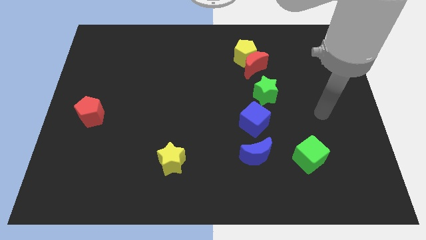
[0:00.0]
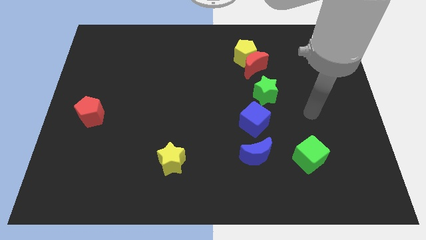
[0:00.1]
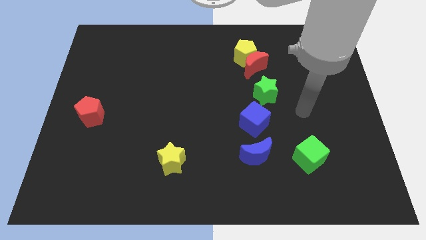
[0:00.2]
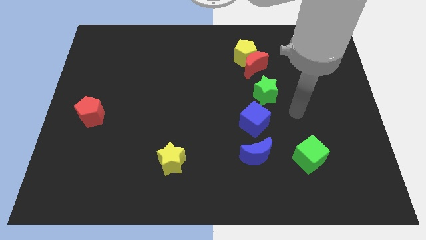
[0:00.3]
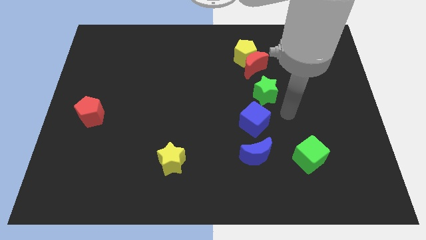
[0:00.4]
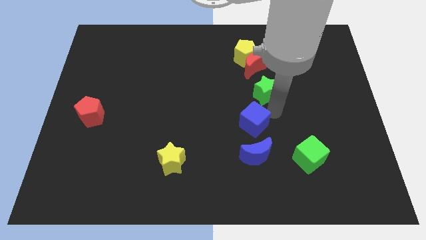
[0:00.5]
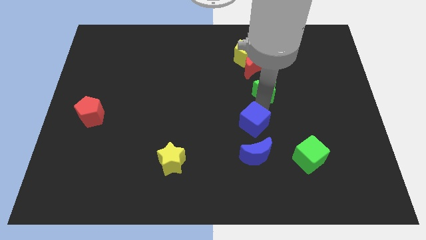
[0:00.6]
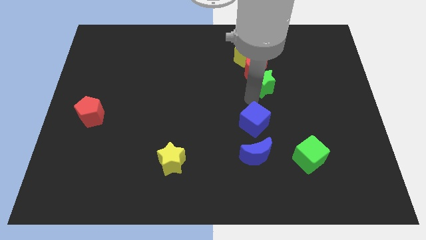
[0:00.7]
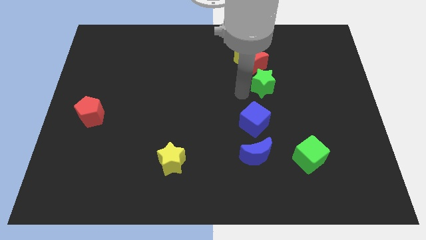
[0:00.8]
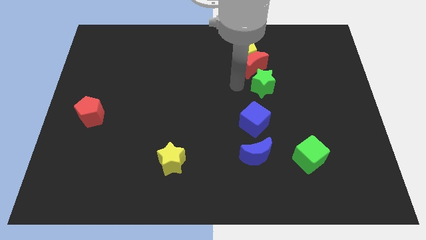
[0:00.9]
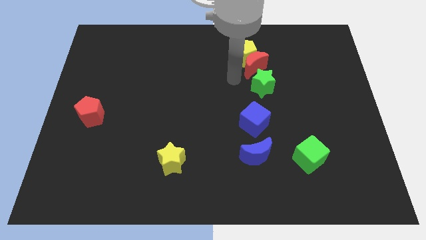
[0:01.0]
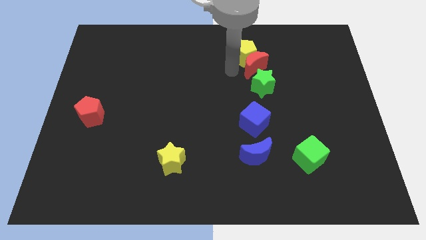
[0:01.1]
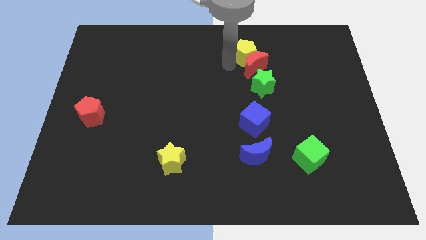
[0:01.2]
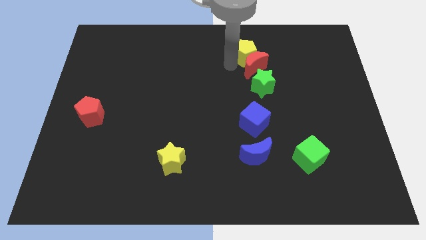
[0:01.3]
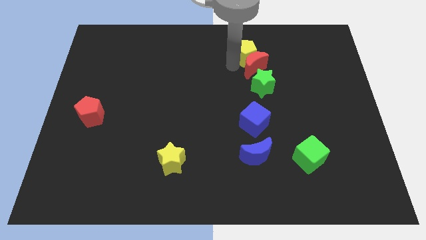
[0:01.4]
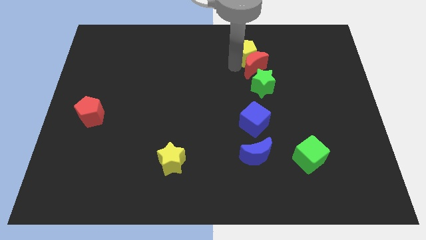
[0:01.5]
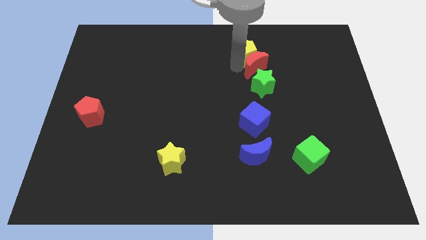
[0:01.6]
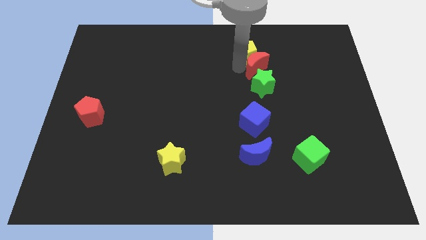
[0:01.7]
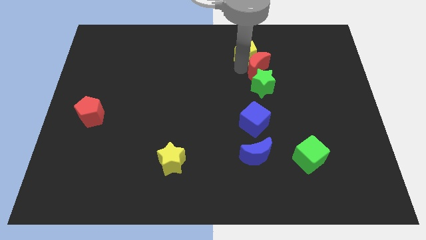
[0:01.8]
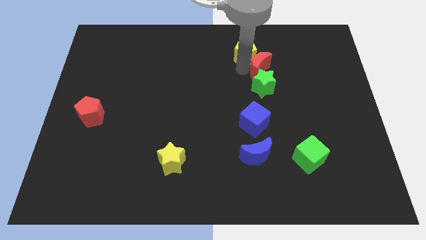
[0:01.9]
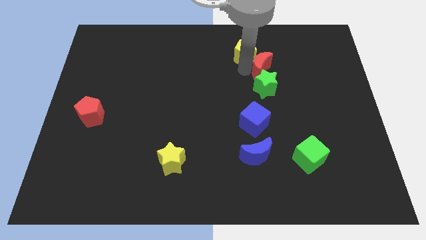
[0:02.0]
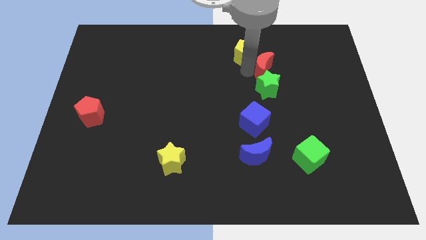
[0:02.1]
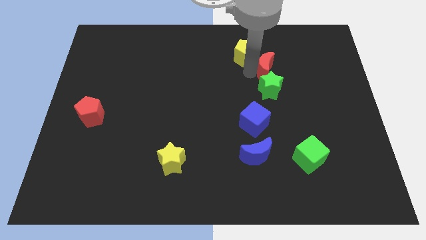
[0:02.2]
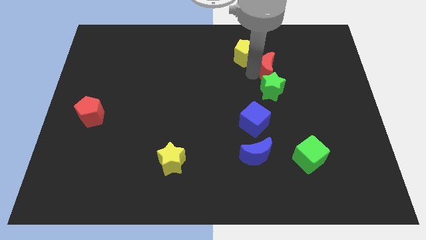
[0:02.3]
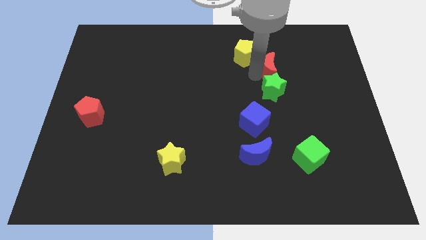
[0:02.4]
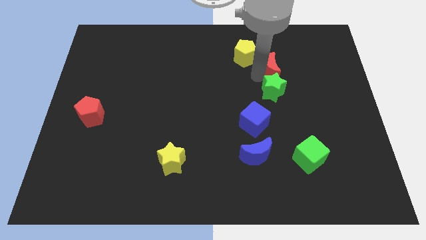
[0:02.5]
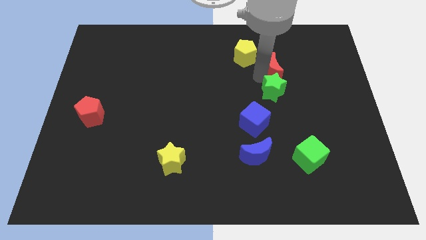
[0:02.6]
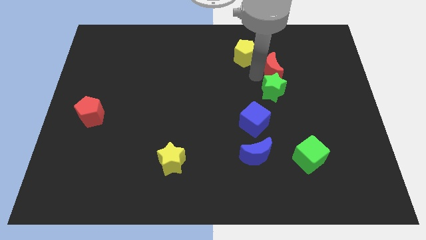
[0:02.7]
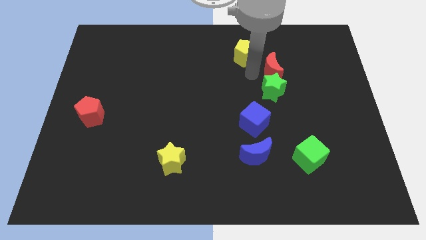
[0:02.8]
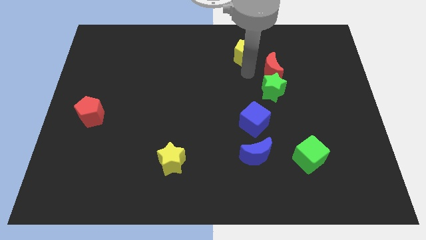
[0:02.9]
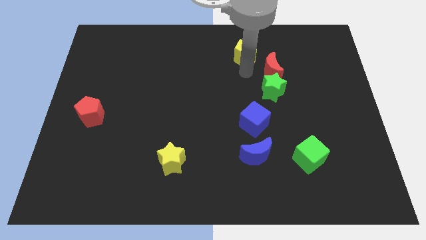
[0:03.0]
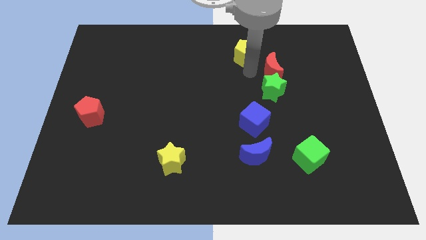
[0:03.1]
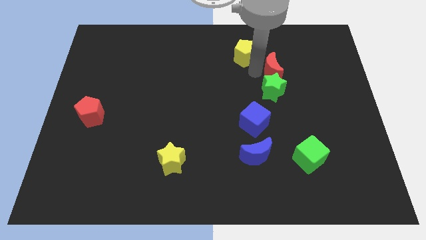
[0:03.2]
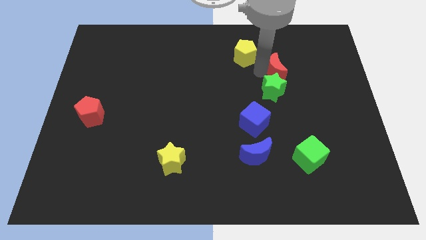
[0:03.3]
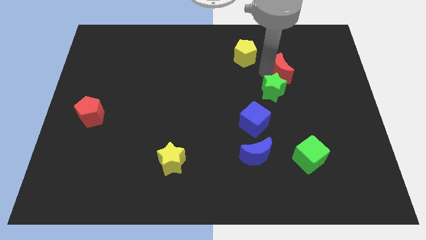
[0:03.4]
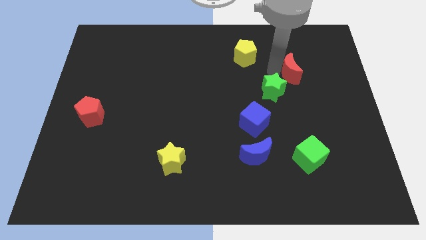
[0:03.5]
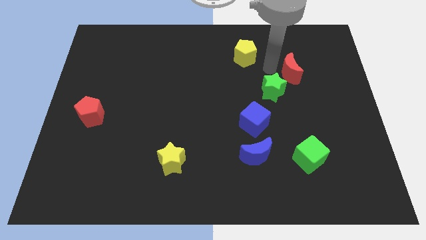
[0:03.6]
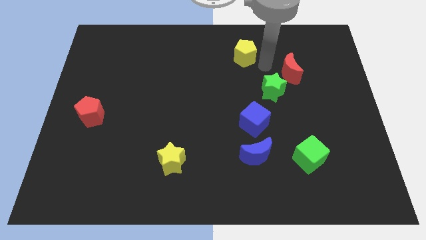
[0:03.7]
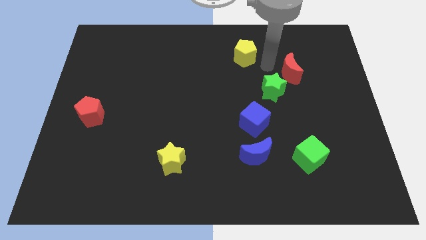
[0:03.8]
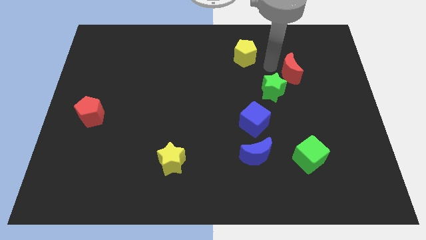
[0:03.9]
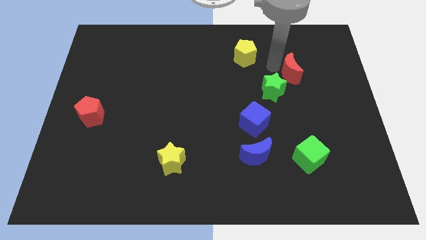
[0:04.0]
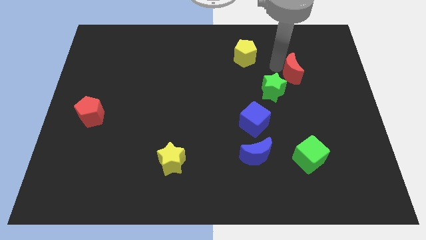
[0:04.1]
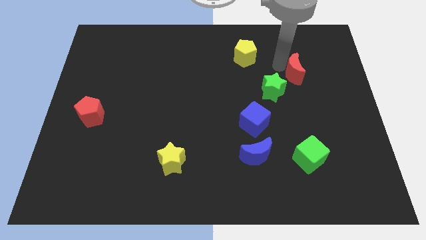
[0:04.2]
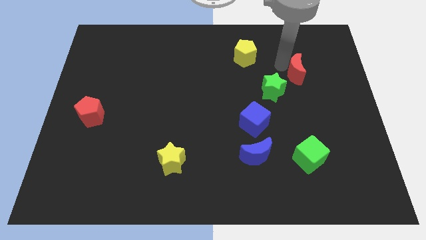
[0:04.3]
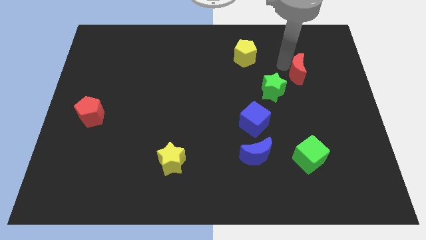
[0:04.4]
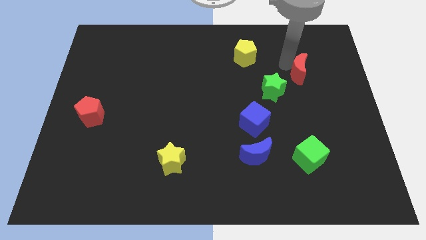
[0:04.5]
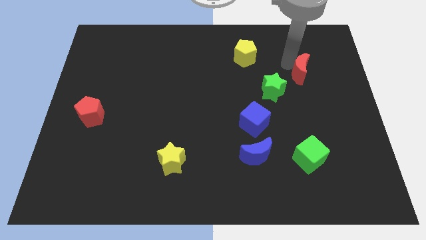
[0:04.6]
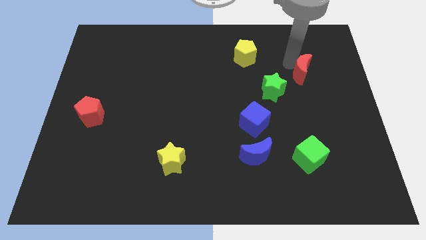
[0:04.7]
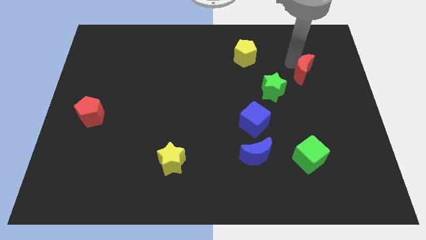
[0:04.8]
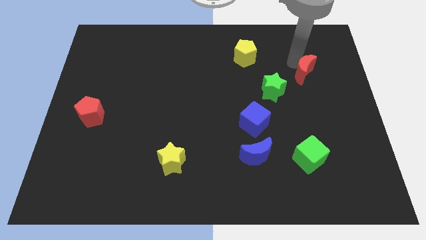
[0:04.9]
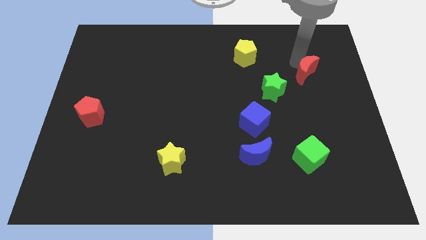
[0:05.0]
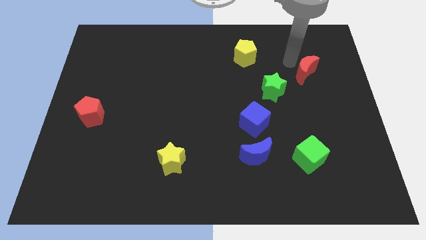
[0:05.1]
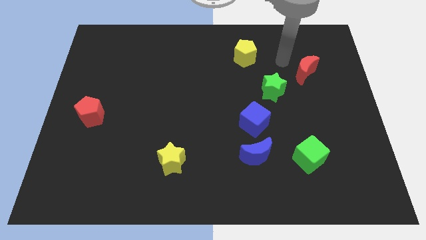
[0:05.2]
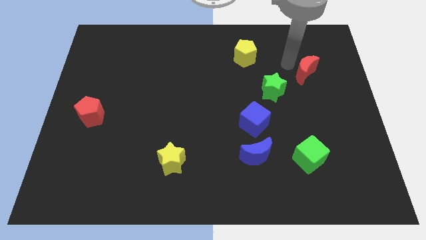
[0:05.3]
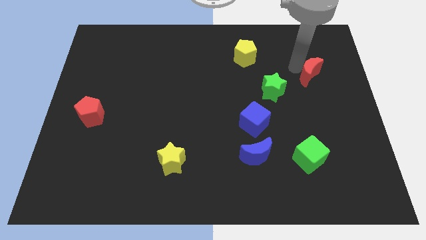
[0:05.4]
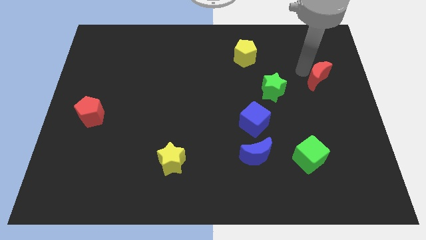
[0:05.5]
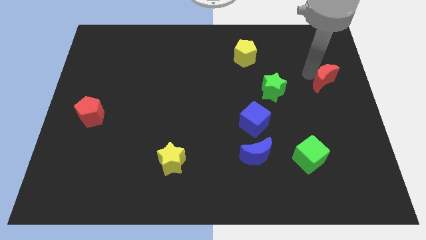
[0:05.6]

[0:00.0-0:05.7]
move the red moon to the right side

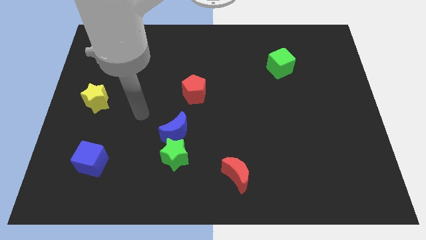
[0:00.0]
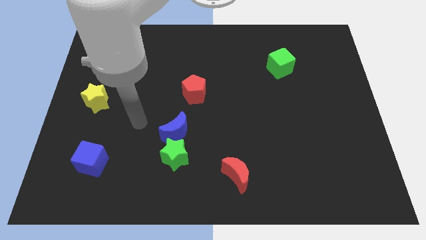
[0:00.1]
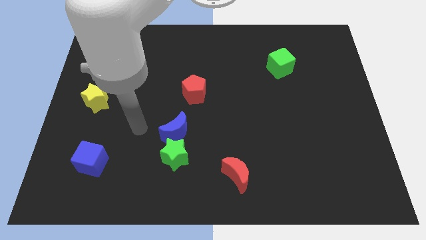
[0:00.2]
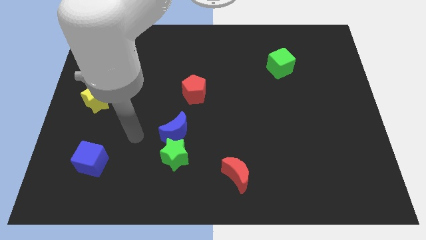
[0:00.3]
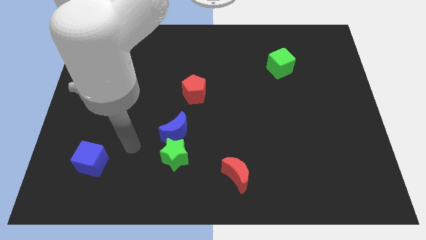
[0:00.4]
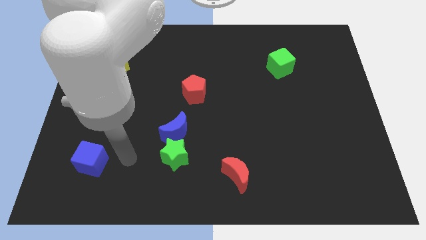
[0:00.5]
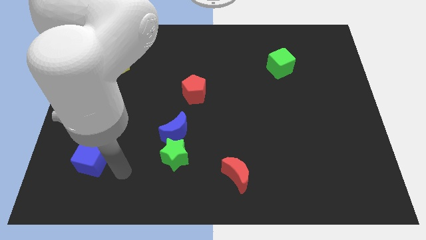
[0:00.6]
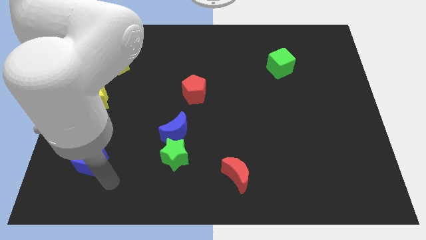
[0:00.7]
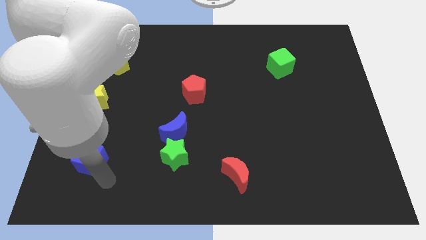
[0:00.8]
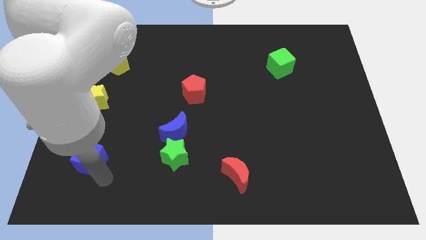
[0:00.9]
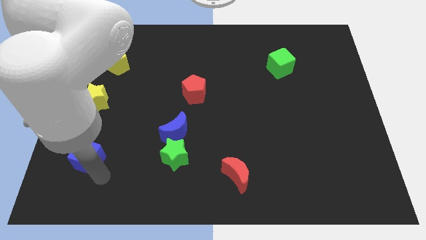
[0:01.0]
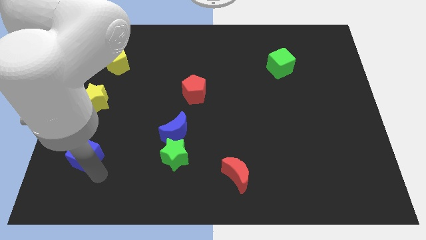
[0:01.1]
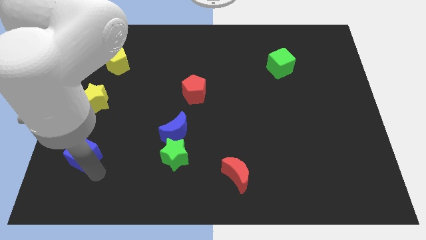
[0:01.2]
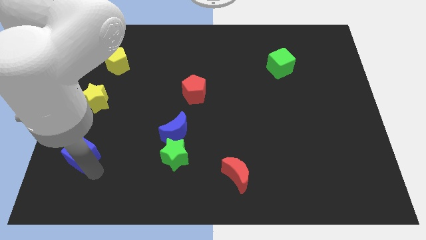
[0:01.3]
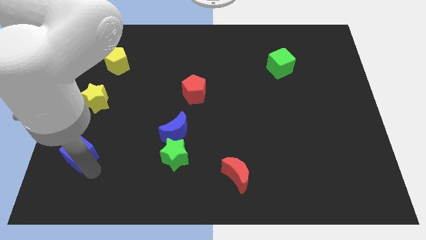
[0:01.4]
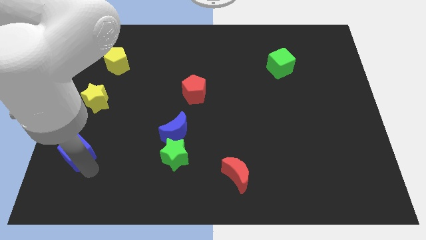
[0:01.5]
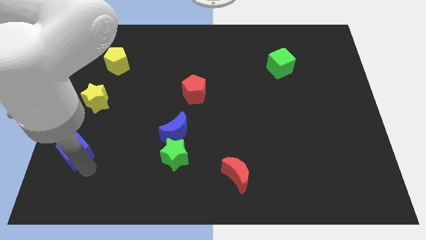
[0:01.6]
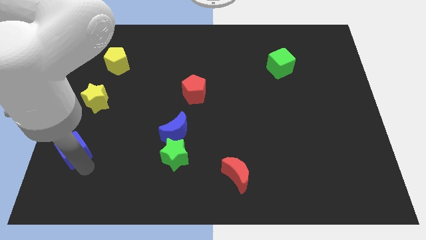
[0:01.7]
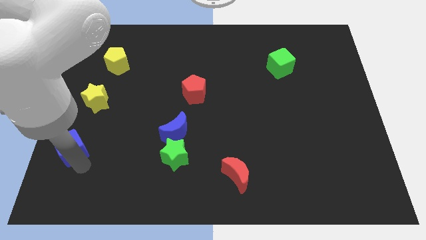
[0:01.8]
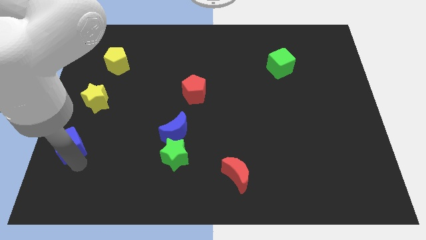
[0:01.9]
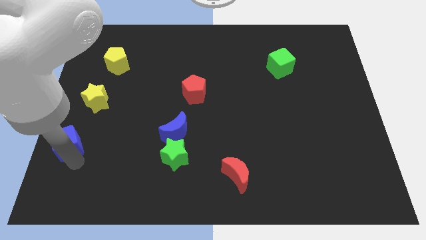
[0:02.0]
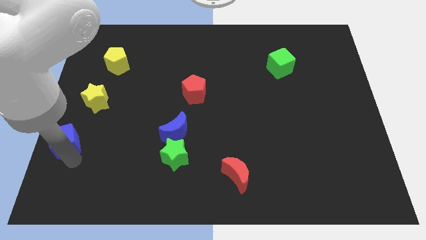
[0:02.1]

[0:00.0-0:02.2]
put the blue cube to the center left
